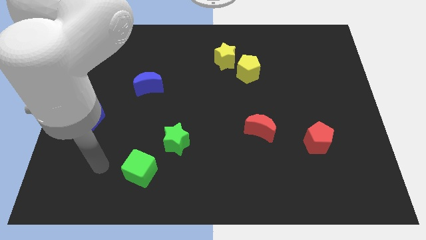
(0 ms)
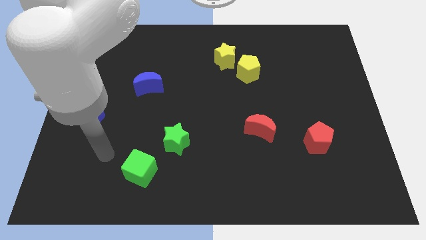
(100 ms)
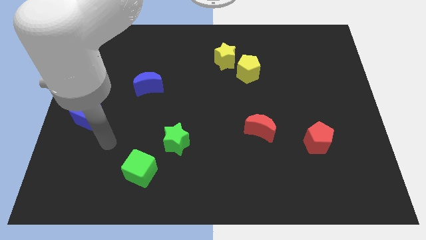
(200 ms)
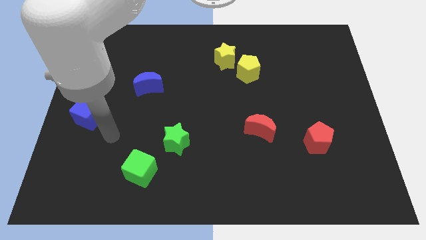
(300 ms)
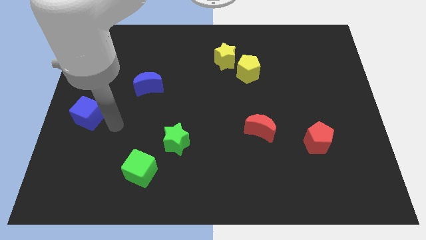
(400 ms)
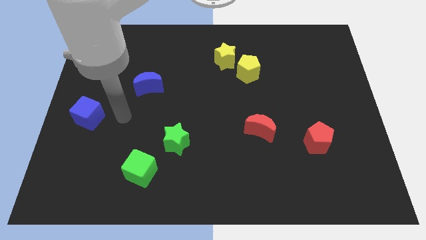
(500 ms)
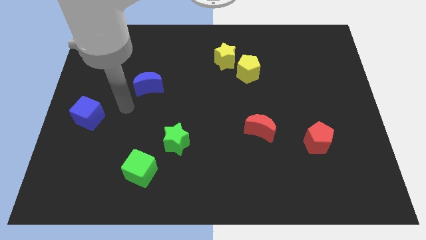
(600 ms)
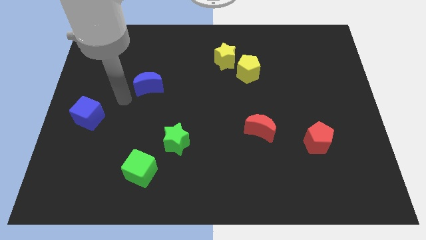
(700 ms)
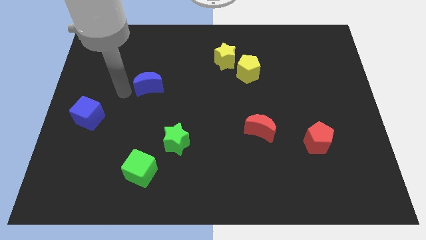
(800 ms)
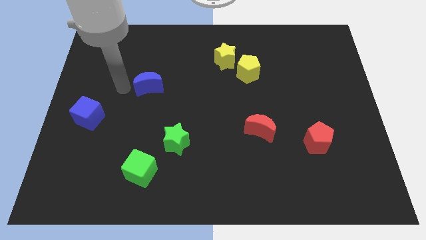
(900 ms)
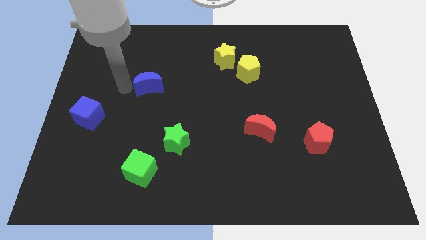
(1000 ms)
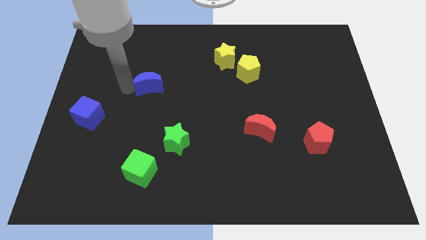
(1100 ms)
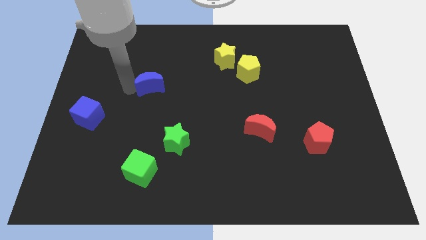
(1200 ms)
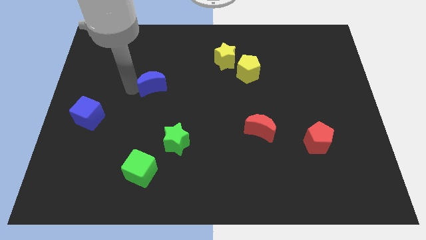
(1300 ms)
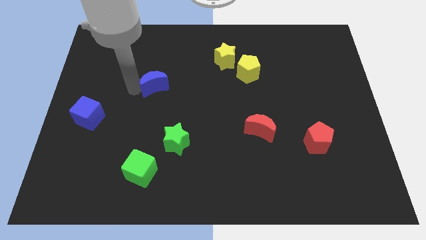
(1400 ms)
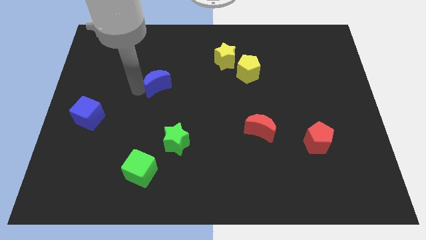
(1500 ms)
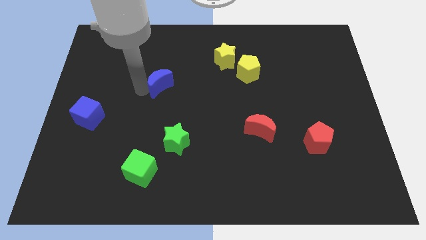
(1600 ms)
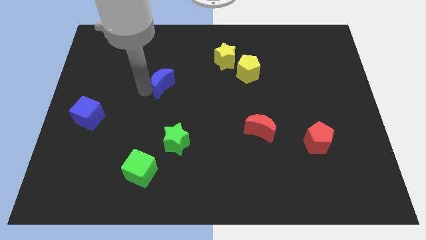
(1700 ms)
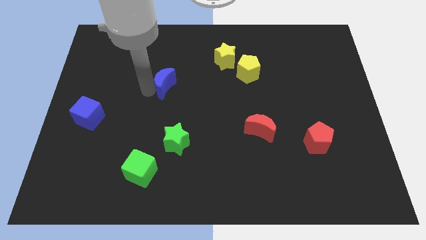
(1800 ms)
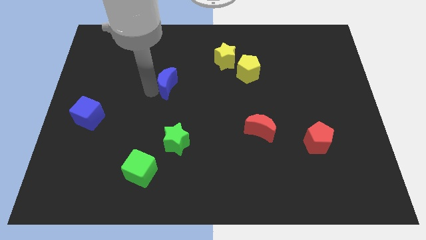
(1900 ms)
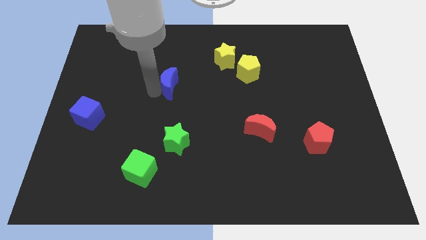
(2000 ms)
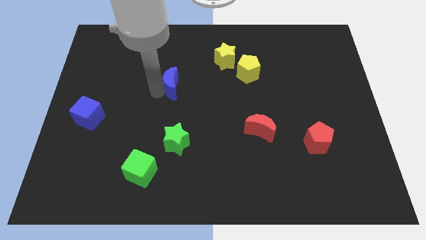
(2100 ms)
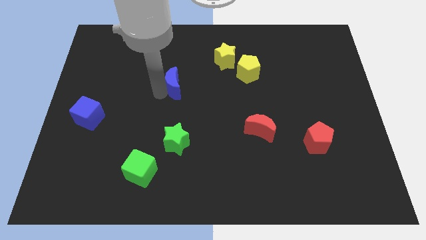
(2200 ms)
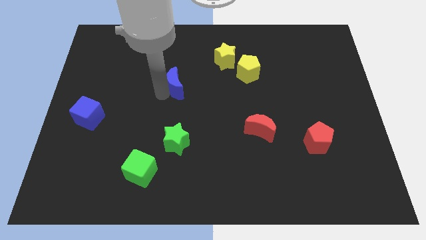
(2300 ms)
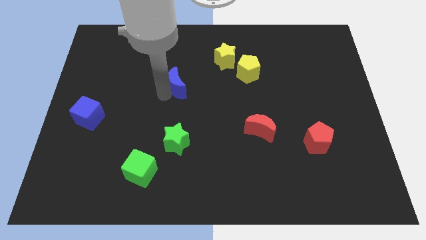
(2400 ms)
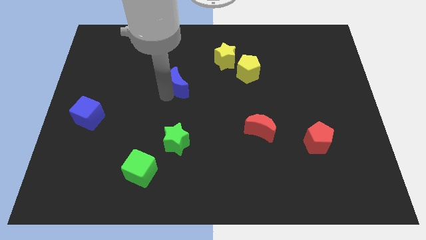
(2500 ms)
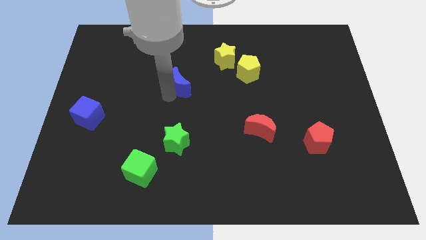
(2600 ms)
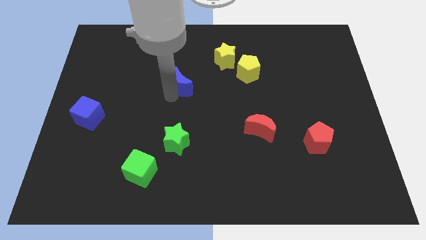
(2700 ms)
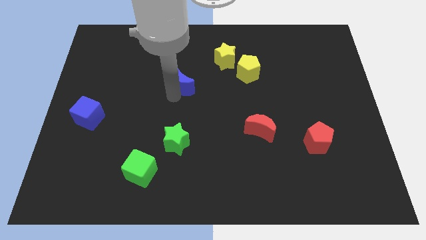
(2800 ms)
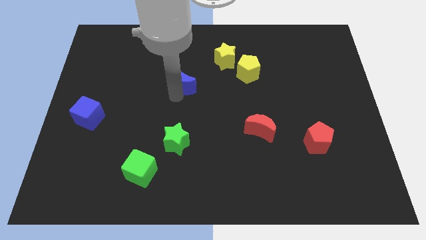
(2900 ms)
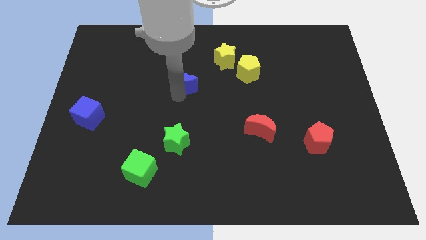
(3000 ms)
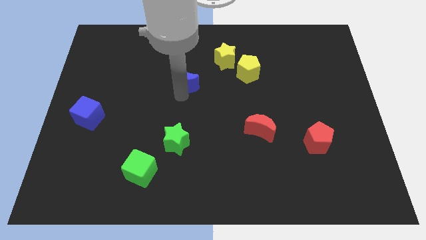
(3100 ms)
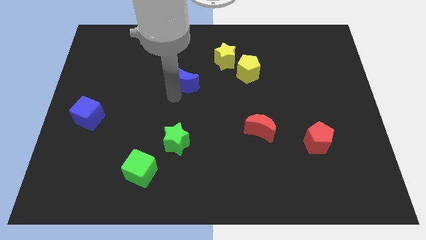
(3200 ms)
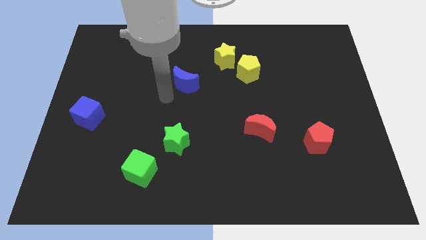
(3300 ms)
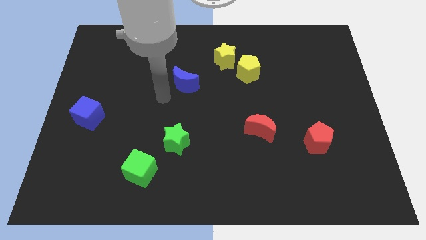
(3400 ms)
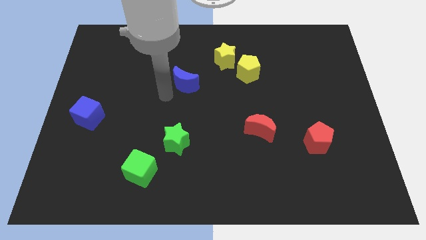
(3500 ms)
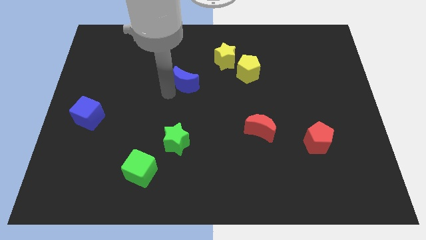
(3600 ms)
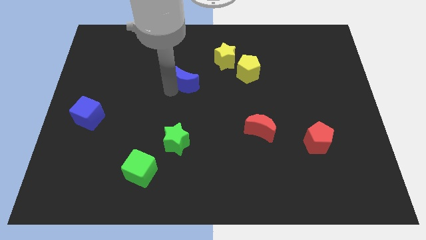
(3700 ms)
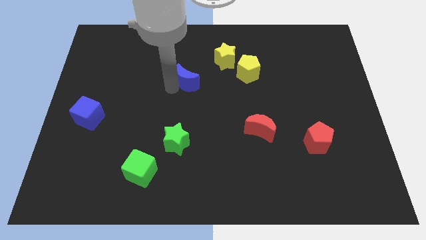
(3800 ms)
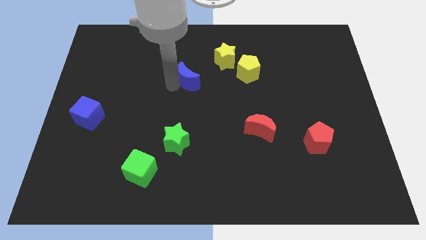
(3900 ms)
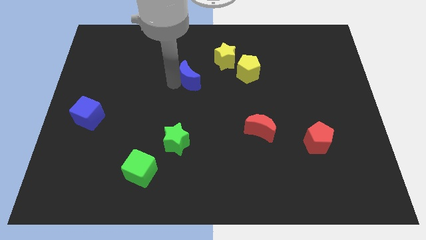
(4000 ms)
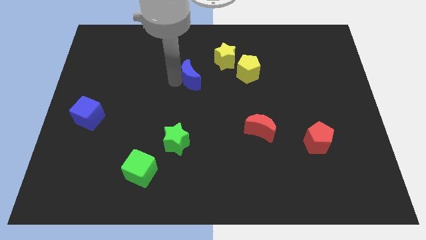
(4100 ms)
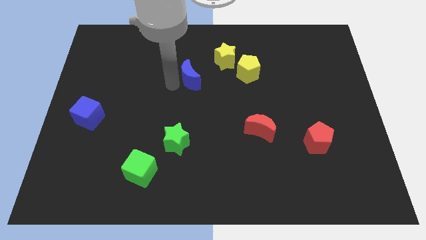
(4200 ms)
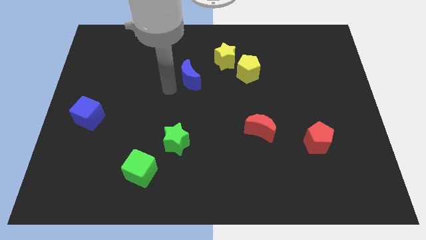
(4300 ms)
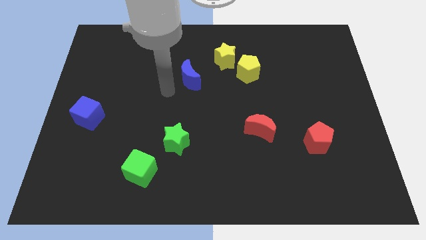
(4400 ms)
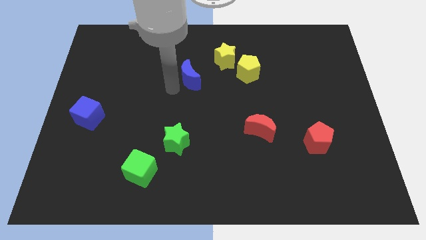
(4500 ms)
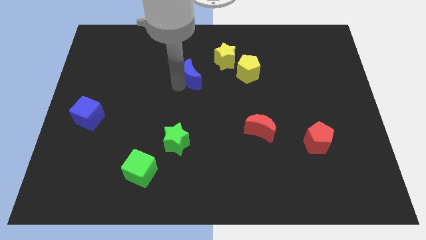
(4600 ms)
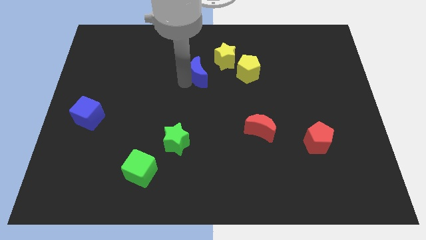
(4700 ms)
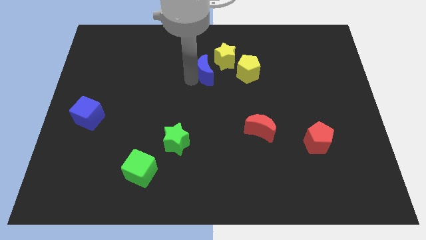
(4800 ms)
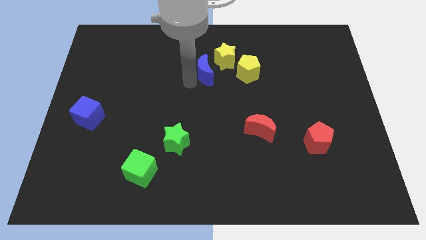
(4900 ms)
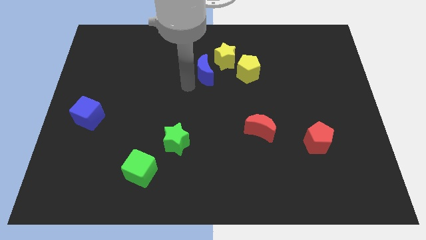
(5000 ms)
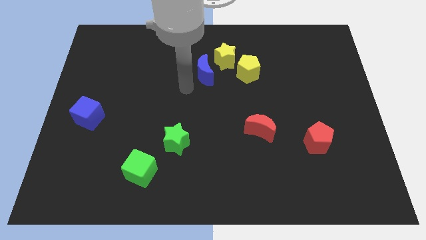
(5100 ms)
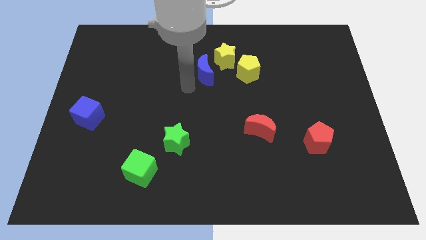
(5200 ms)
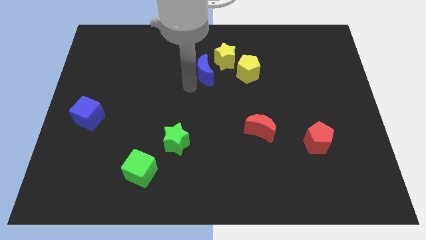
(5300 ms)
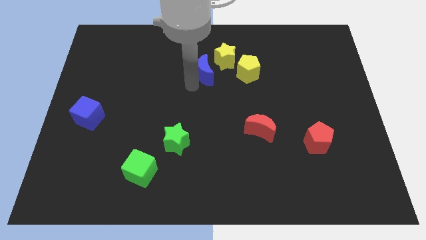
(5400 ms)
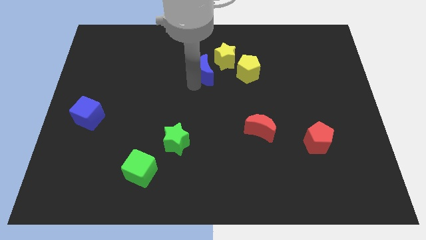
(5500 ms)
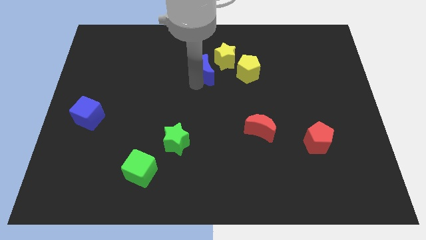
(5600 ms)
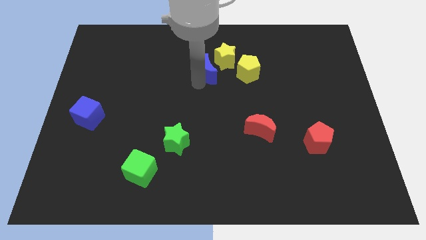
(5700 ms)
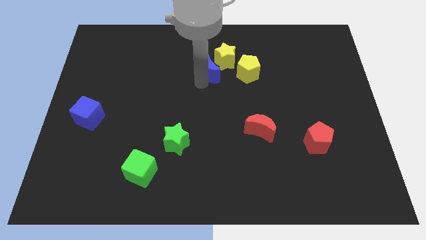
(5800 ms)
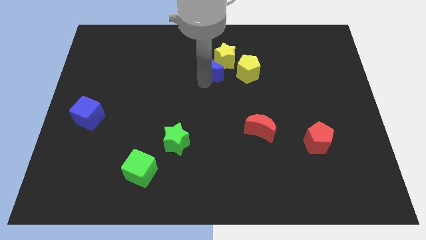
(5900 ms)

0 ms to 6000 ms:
slide the blue moon towards the yellow star

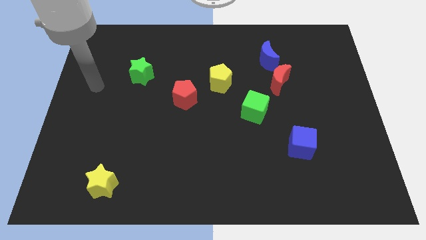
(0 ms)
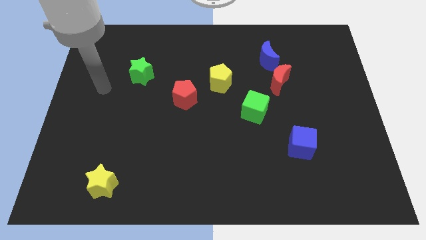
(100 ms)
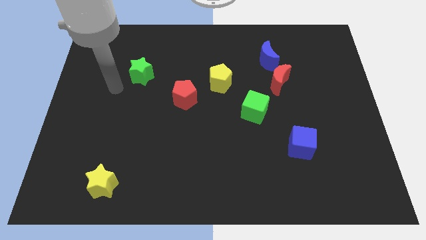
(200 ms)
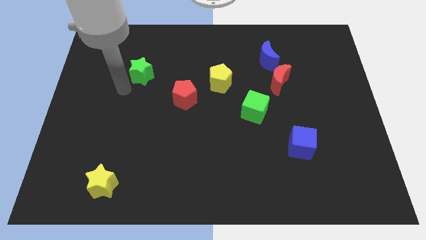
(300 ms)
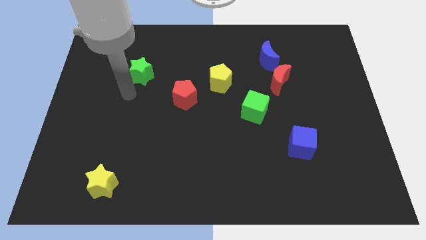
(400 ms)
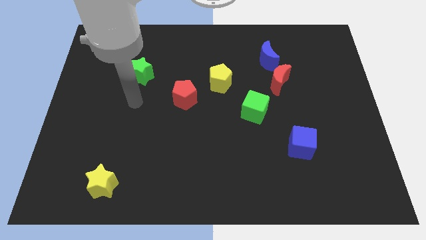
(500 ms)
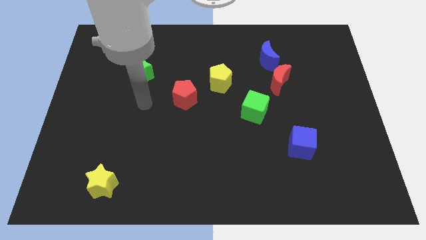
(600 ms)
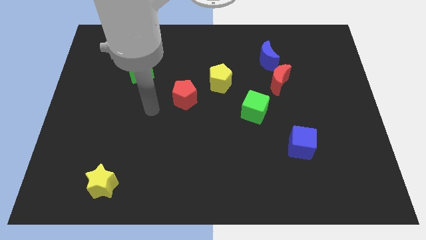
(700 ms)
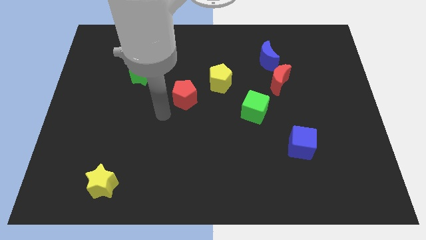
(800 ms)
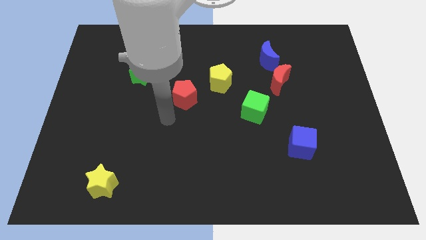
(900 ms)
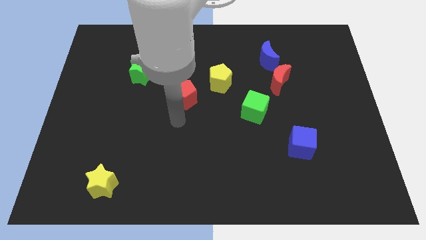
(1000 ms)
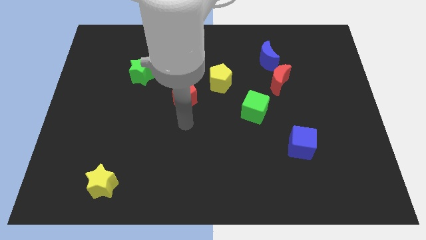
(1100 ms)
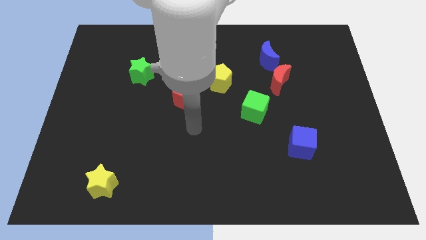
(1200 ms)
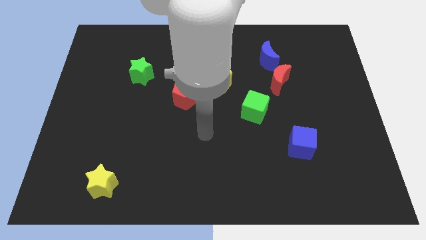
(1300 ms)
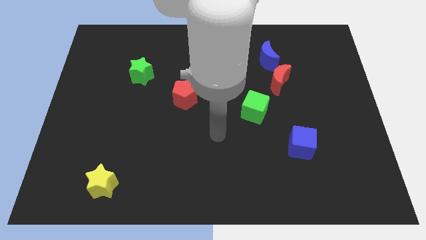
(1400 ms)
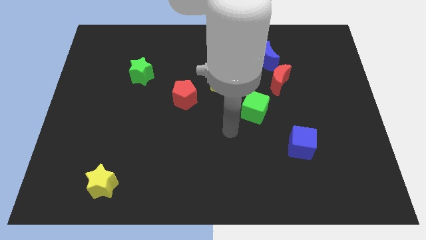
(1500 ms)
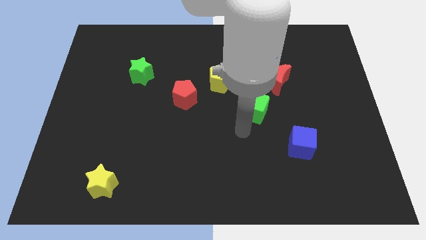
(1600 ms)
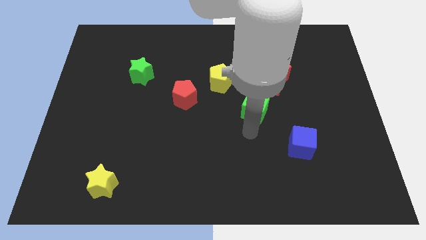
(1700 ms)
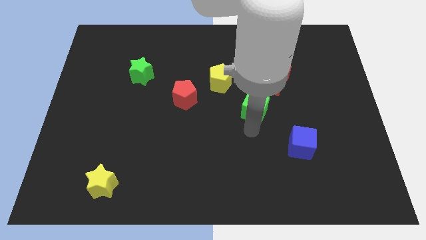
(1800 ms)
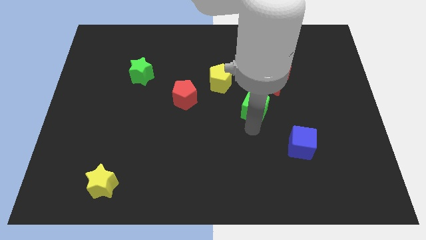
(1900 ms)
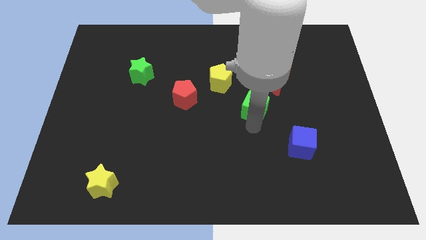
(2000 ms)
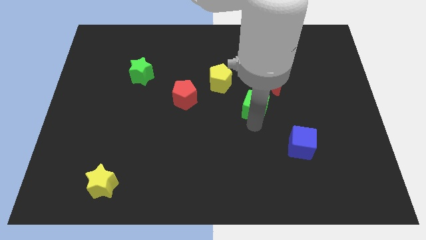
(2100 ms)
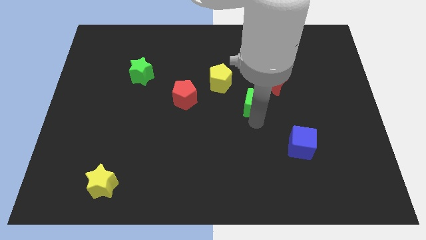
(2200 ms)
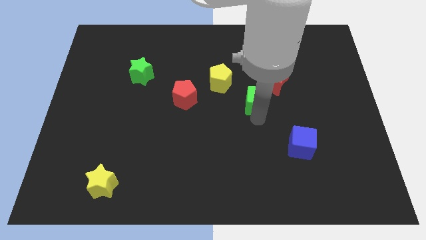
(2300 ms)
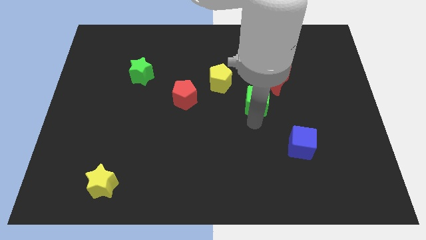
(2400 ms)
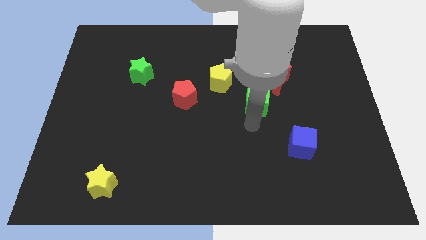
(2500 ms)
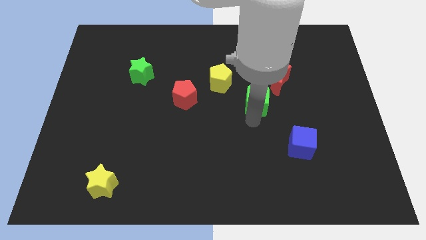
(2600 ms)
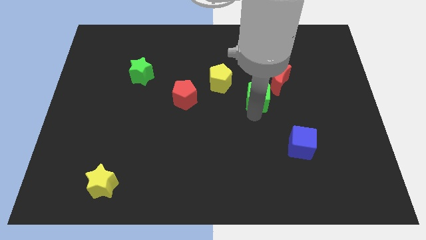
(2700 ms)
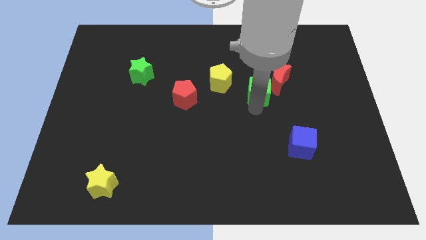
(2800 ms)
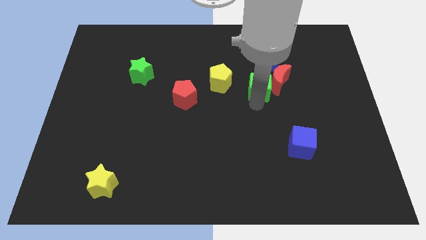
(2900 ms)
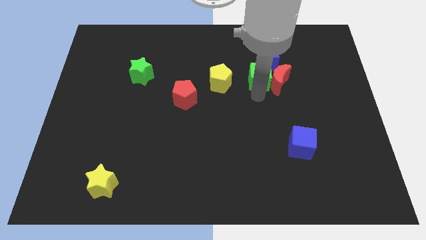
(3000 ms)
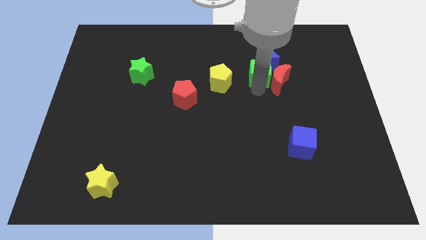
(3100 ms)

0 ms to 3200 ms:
move the green cube towards the blue moon
